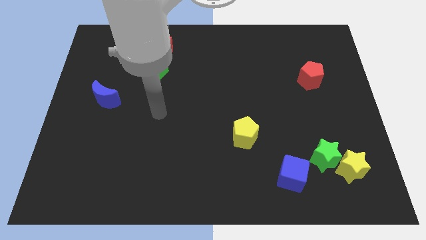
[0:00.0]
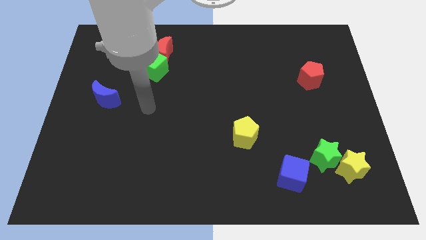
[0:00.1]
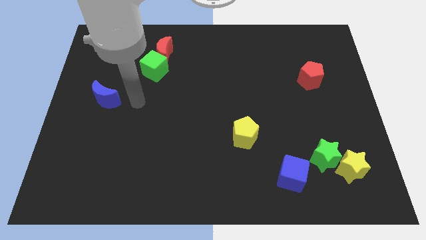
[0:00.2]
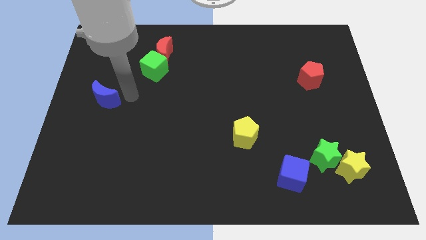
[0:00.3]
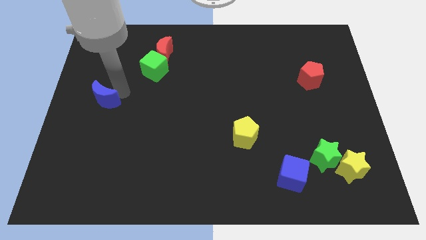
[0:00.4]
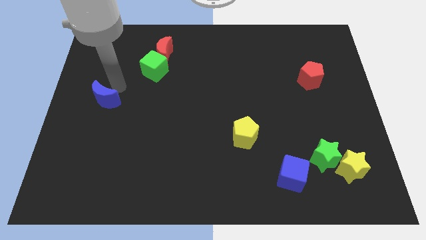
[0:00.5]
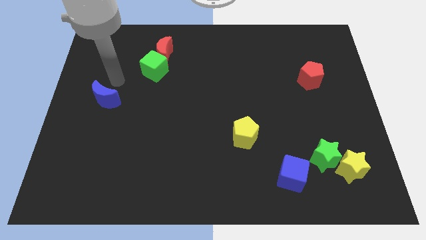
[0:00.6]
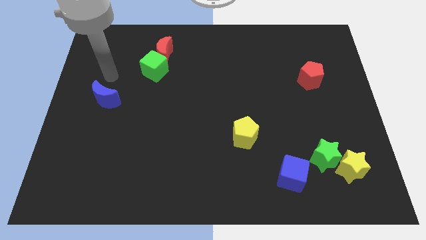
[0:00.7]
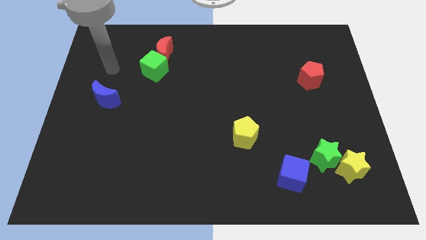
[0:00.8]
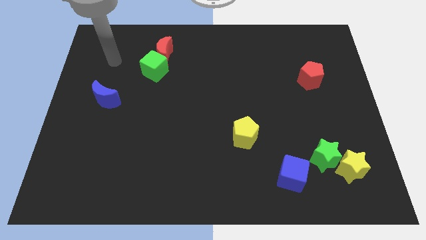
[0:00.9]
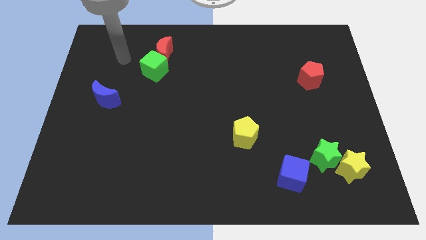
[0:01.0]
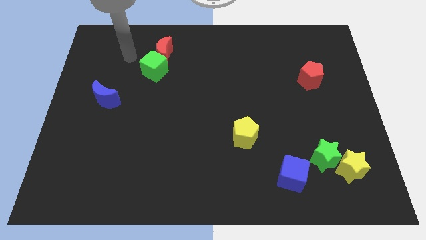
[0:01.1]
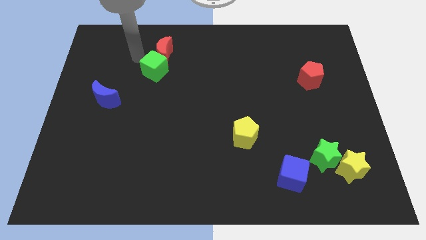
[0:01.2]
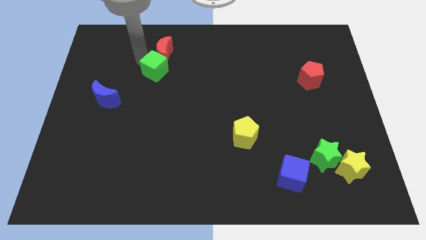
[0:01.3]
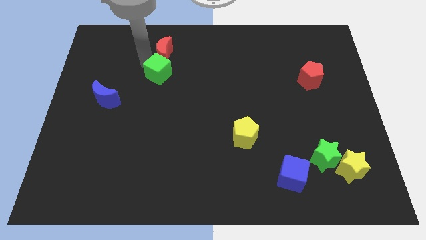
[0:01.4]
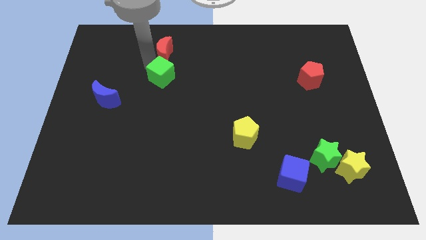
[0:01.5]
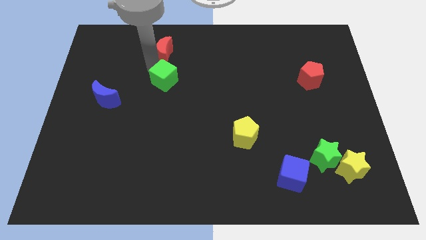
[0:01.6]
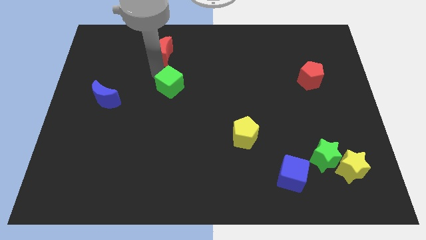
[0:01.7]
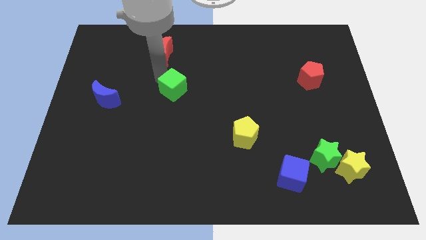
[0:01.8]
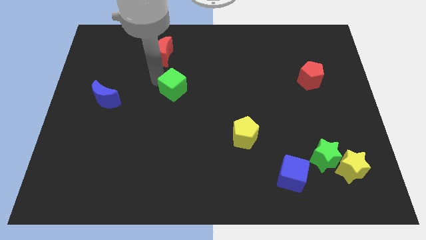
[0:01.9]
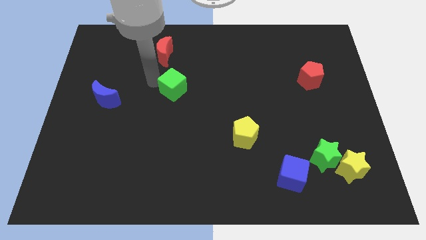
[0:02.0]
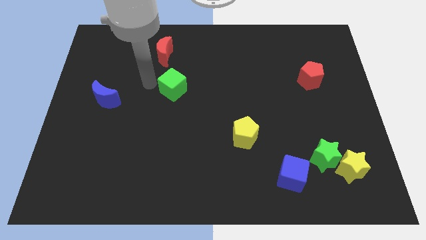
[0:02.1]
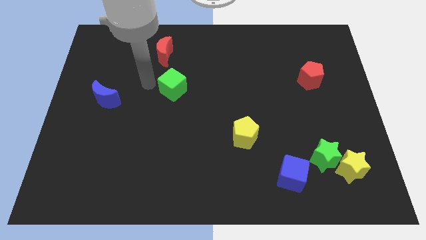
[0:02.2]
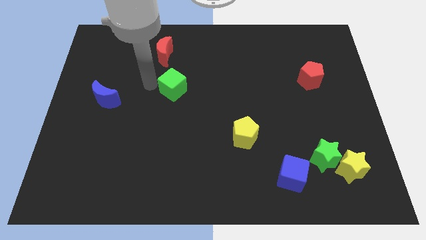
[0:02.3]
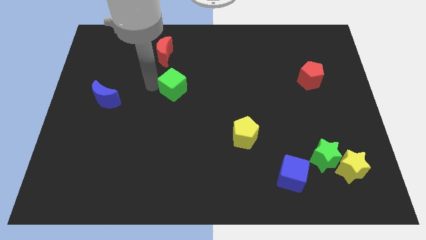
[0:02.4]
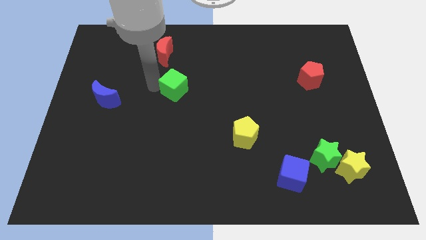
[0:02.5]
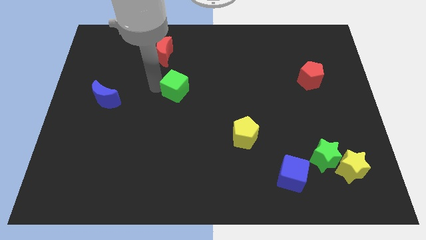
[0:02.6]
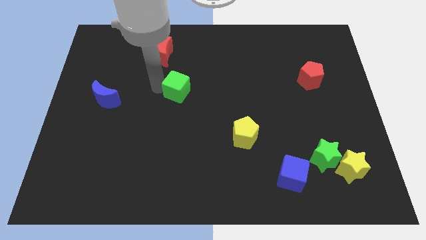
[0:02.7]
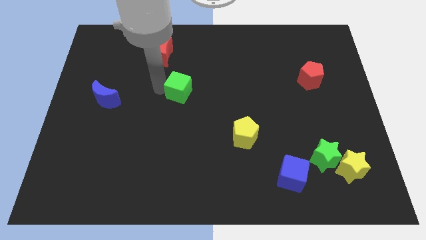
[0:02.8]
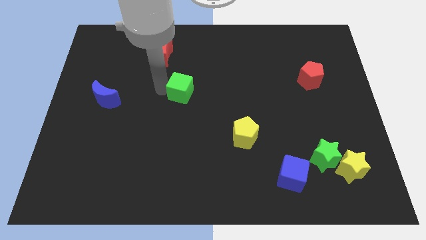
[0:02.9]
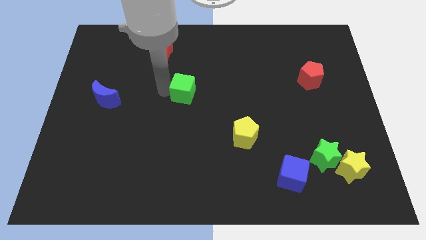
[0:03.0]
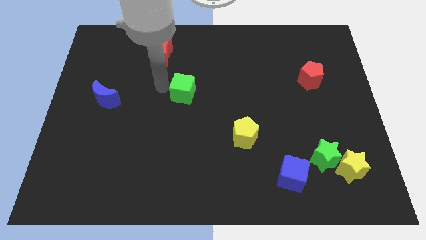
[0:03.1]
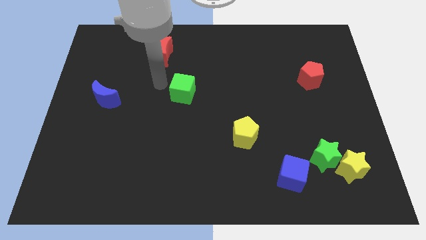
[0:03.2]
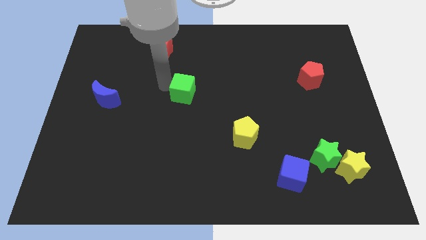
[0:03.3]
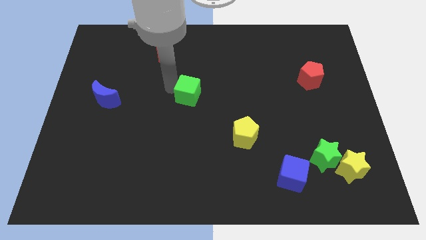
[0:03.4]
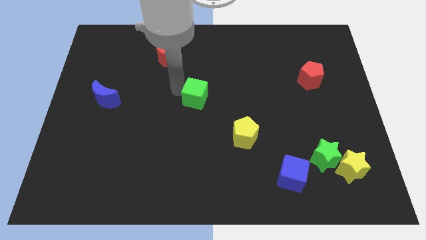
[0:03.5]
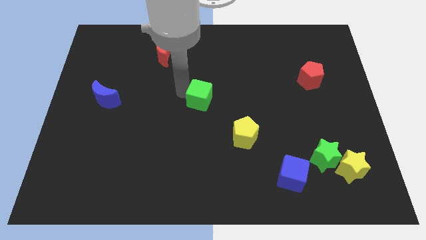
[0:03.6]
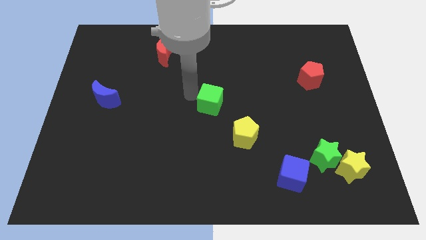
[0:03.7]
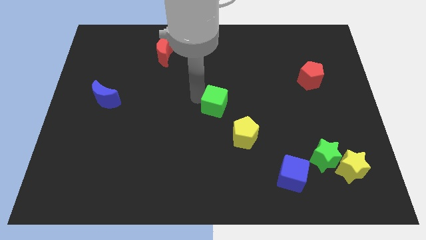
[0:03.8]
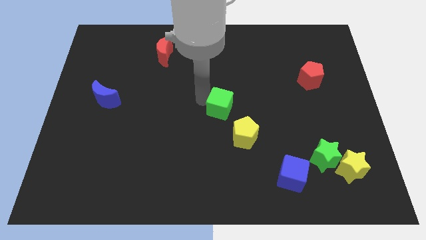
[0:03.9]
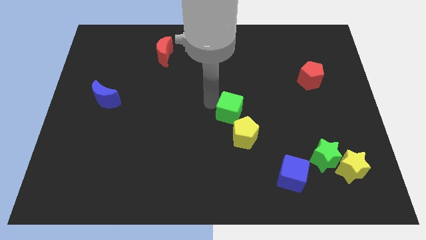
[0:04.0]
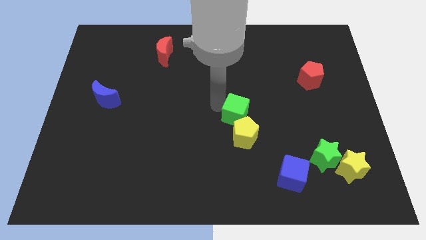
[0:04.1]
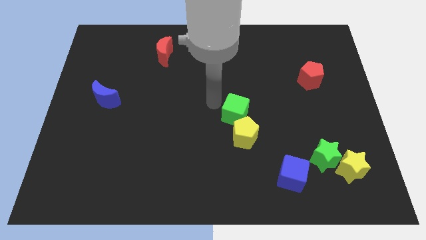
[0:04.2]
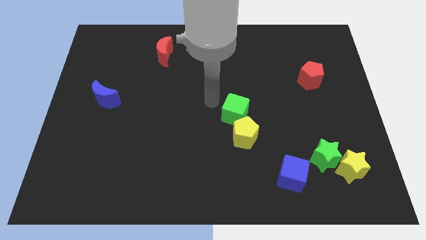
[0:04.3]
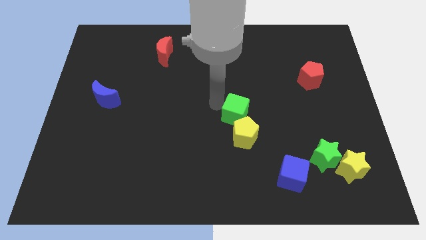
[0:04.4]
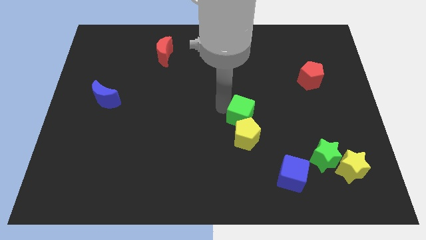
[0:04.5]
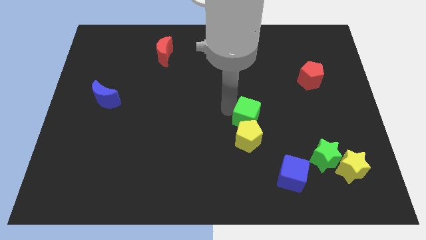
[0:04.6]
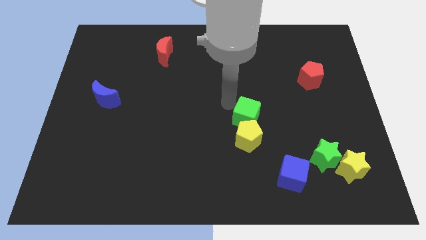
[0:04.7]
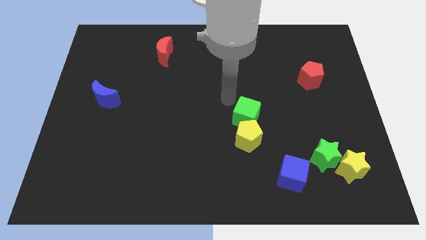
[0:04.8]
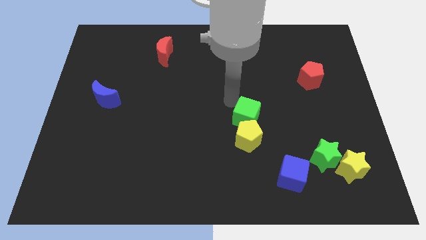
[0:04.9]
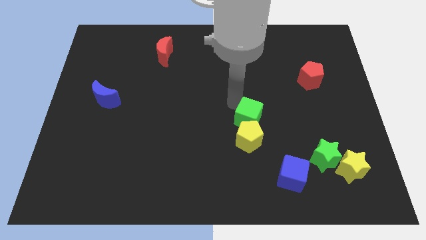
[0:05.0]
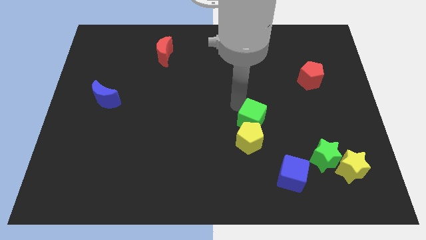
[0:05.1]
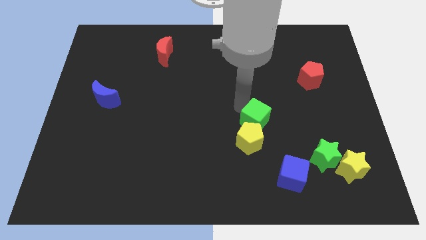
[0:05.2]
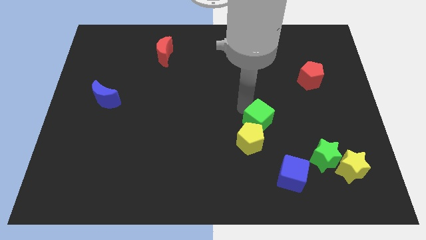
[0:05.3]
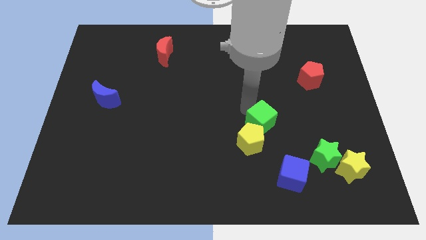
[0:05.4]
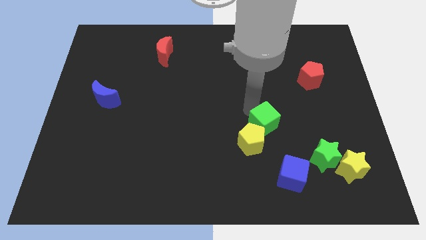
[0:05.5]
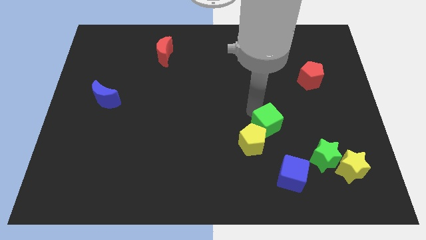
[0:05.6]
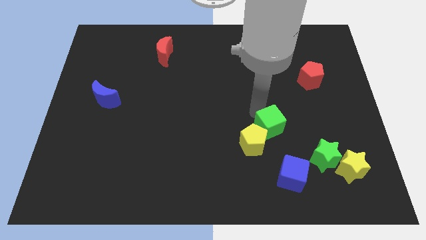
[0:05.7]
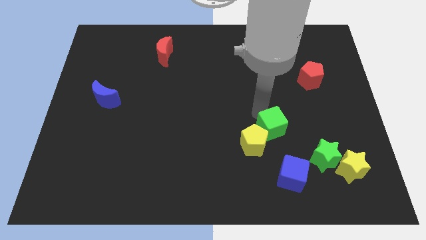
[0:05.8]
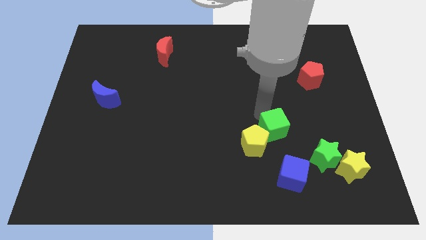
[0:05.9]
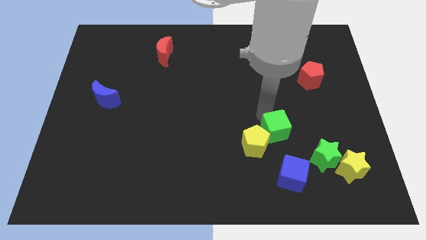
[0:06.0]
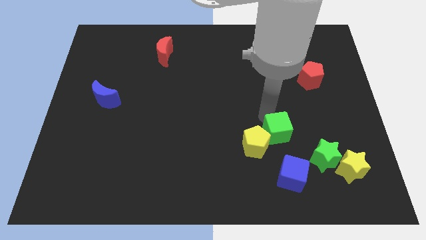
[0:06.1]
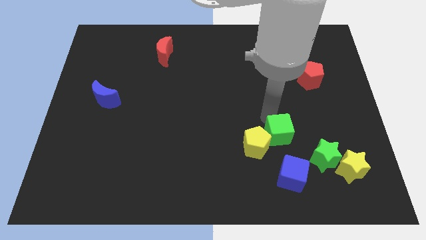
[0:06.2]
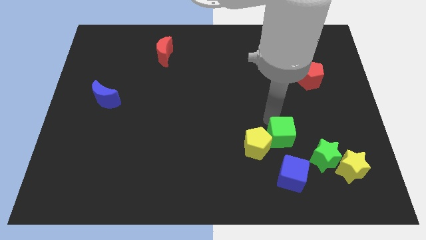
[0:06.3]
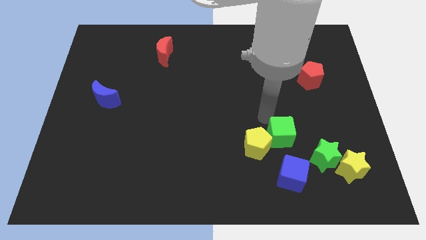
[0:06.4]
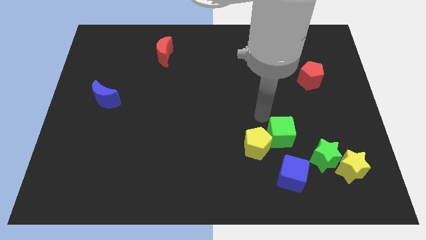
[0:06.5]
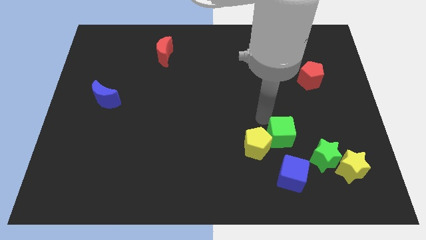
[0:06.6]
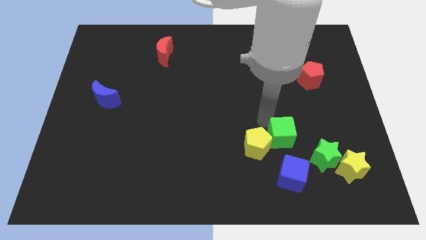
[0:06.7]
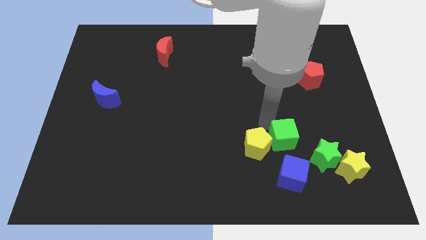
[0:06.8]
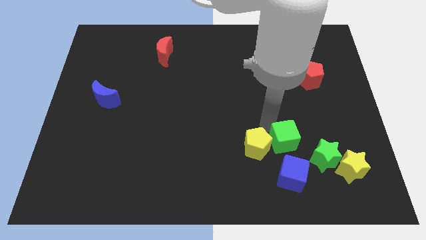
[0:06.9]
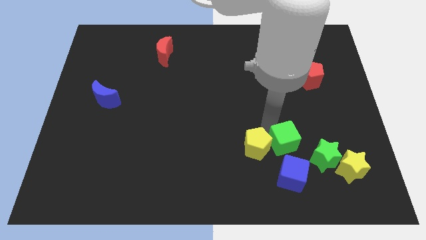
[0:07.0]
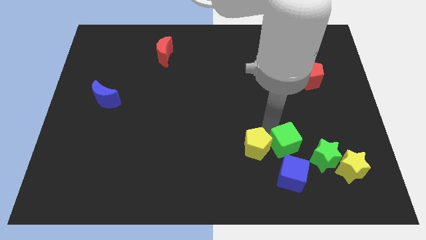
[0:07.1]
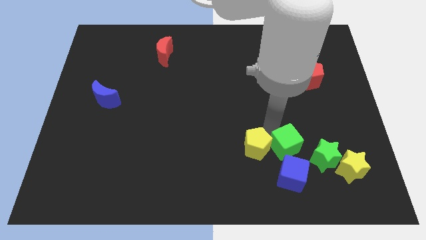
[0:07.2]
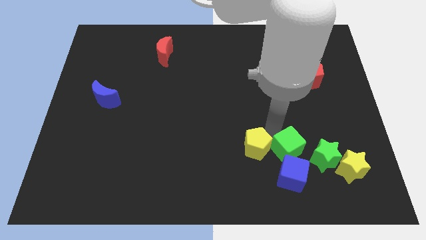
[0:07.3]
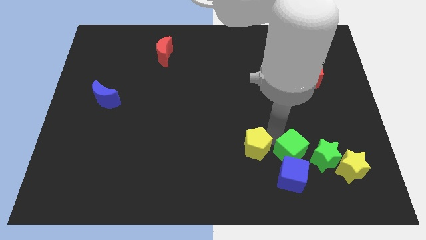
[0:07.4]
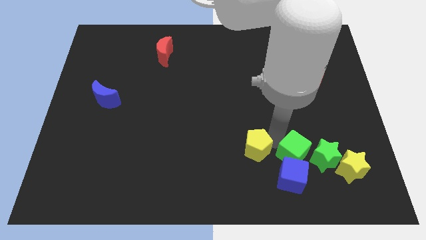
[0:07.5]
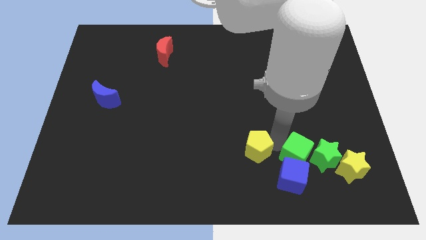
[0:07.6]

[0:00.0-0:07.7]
push the green cube next to the green star
